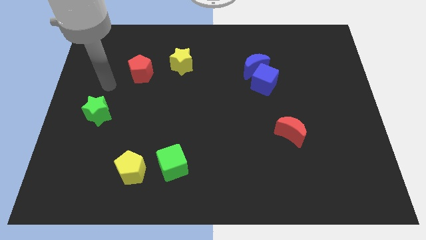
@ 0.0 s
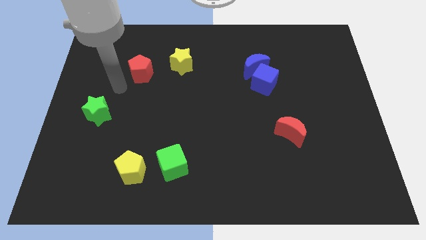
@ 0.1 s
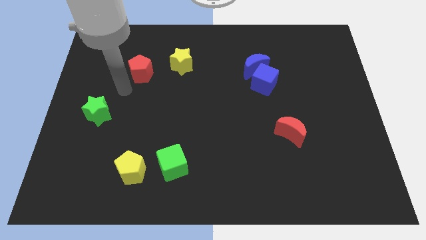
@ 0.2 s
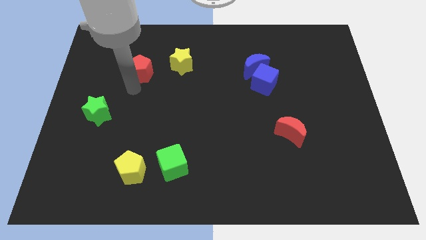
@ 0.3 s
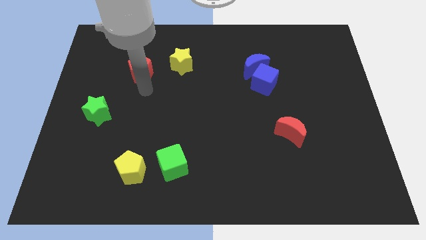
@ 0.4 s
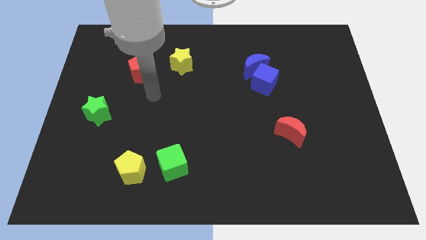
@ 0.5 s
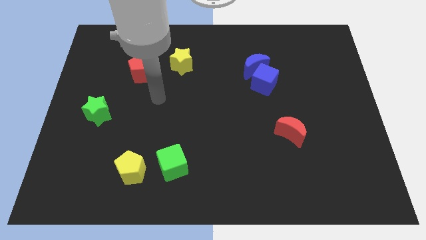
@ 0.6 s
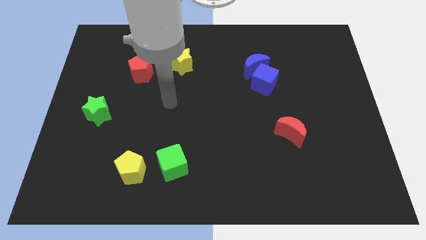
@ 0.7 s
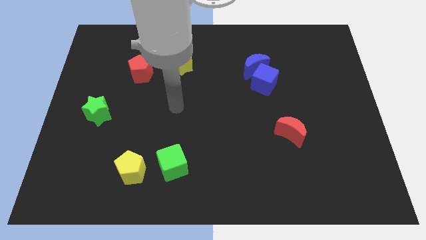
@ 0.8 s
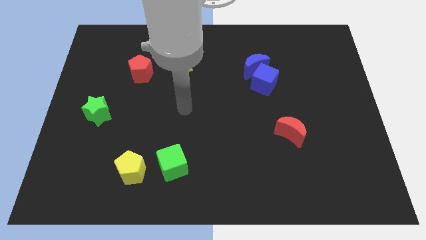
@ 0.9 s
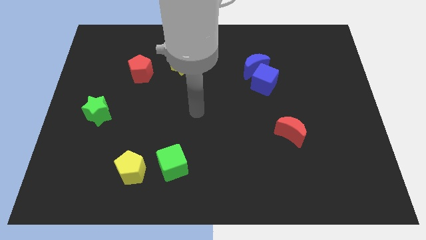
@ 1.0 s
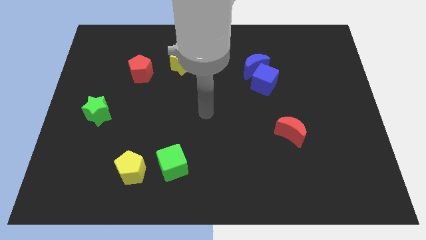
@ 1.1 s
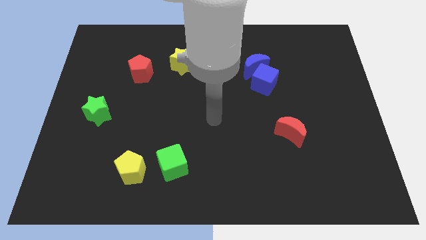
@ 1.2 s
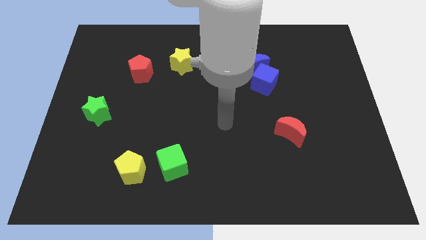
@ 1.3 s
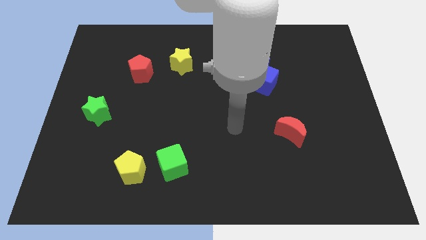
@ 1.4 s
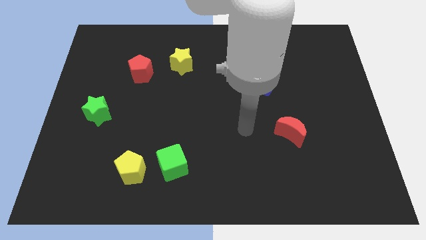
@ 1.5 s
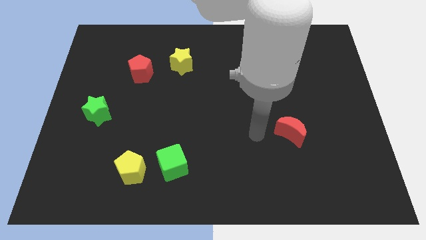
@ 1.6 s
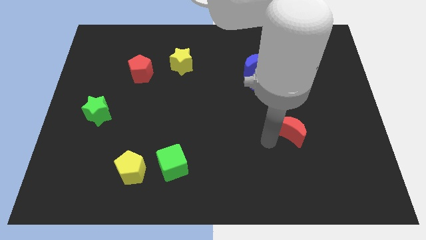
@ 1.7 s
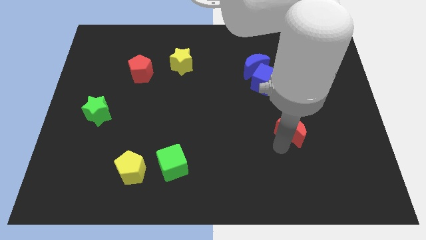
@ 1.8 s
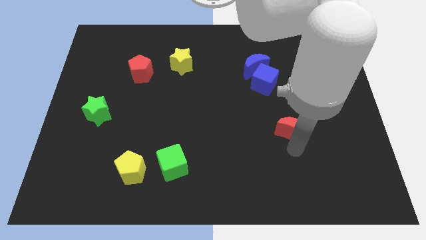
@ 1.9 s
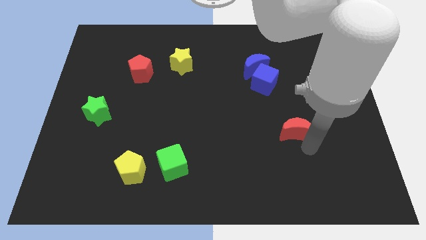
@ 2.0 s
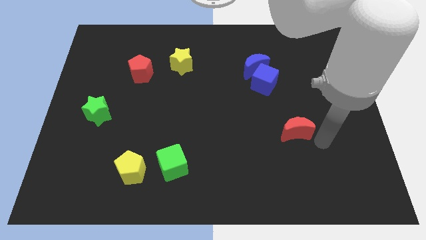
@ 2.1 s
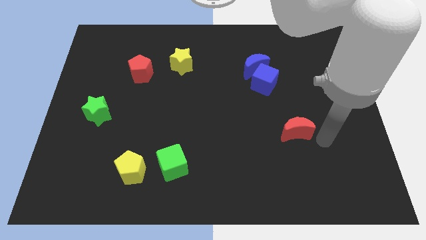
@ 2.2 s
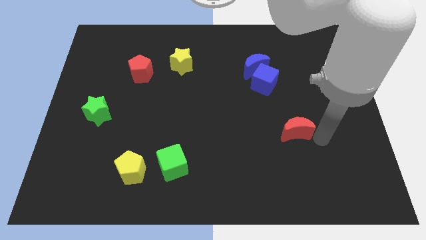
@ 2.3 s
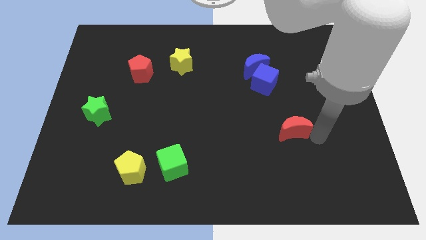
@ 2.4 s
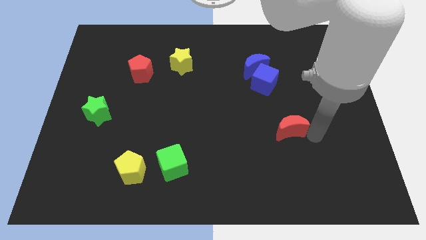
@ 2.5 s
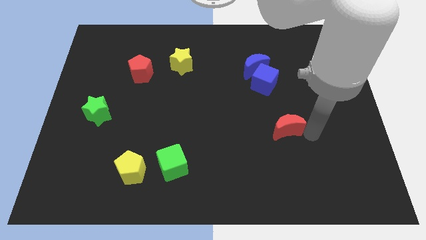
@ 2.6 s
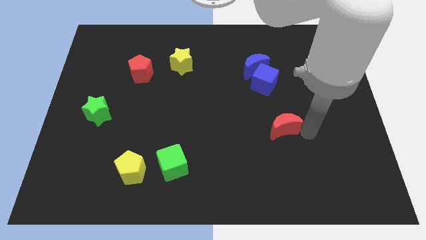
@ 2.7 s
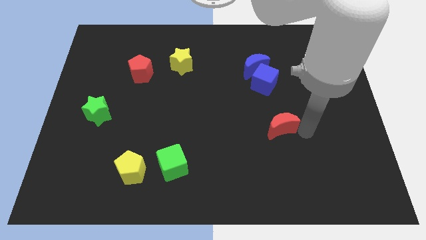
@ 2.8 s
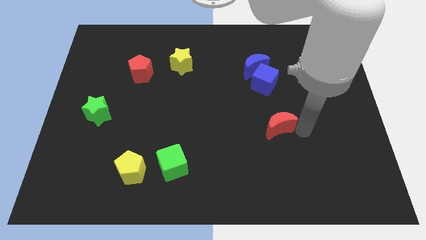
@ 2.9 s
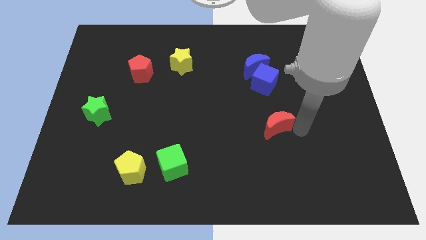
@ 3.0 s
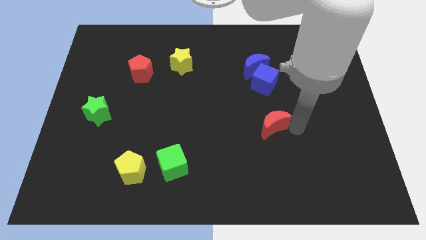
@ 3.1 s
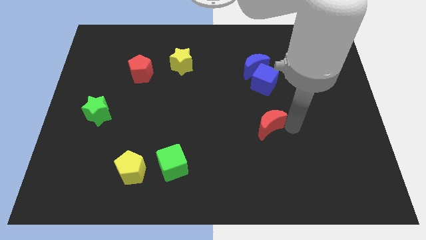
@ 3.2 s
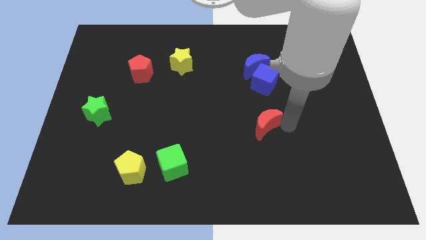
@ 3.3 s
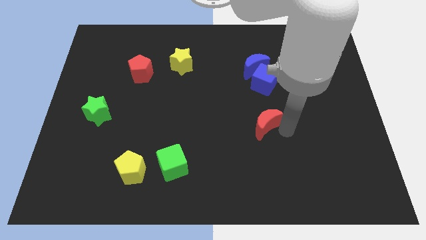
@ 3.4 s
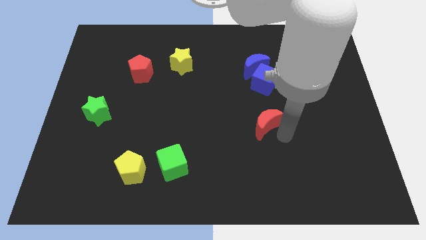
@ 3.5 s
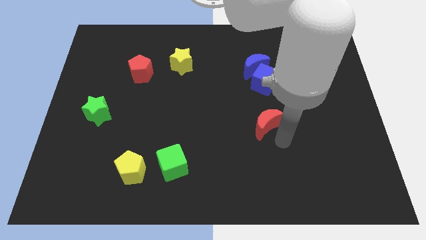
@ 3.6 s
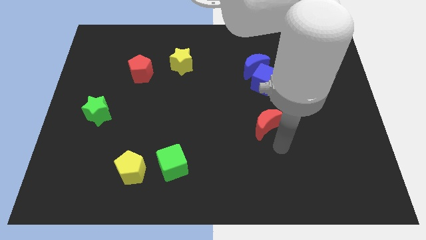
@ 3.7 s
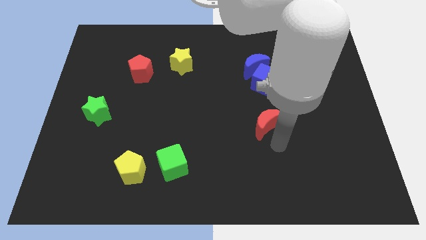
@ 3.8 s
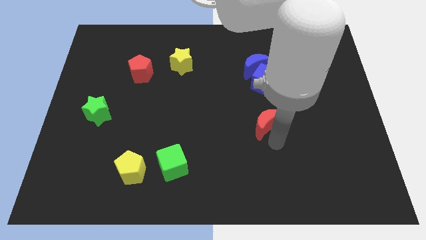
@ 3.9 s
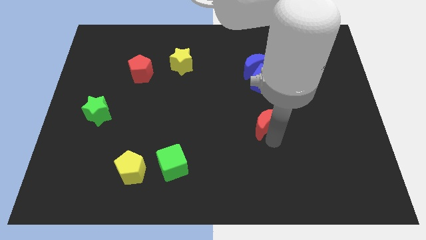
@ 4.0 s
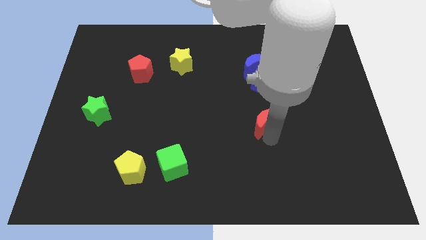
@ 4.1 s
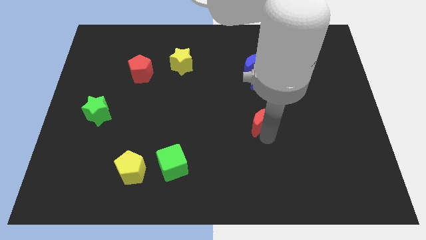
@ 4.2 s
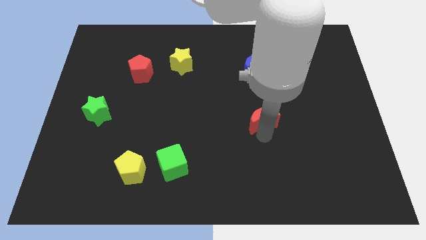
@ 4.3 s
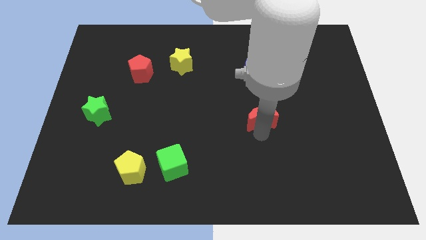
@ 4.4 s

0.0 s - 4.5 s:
move the red moon upwards and then to the left slightly

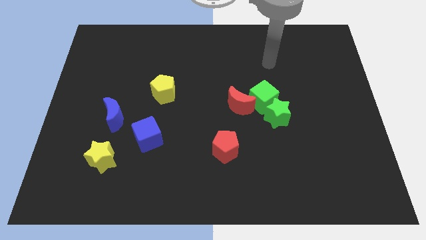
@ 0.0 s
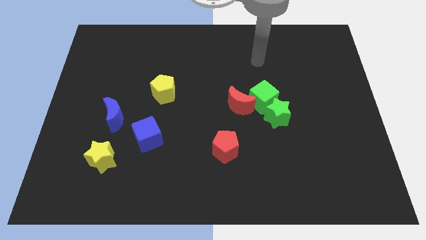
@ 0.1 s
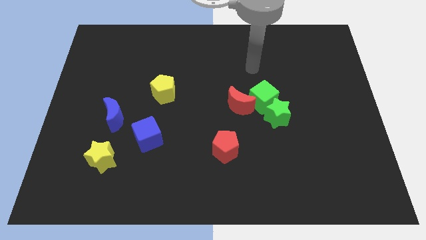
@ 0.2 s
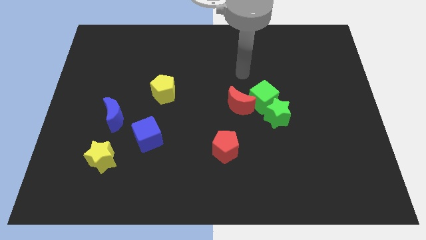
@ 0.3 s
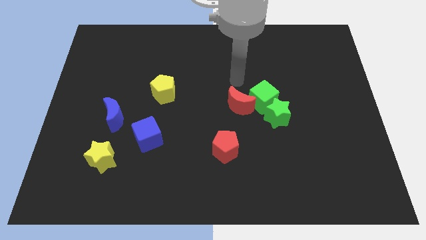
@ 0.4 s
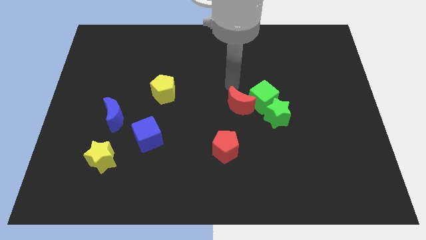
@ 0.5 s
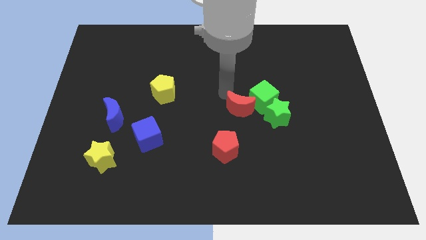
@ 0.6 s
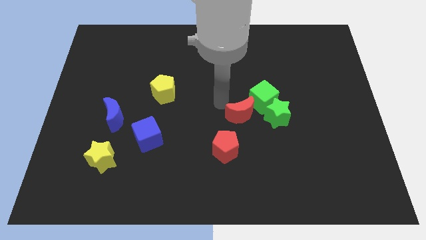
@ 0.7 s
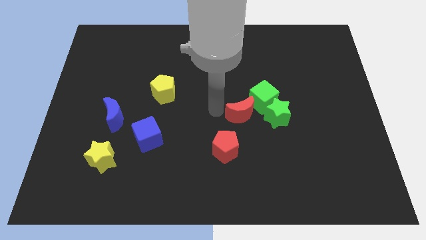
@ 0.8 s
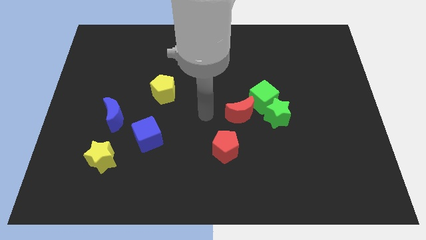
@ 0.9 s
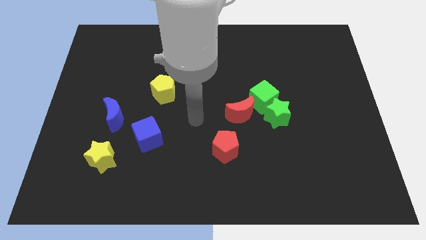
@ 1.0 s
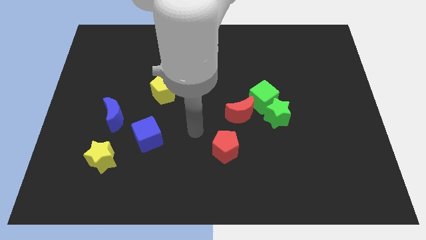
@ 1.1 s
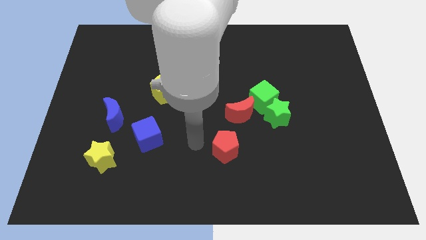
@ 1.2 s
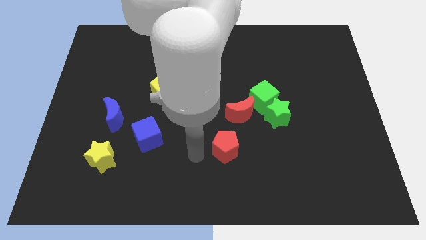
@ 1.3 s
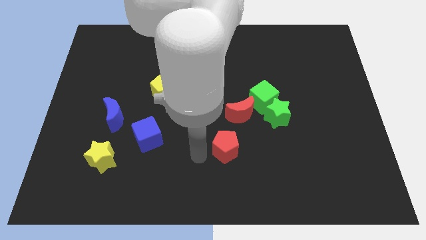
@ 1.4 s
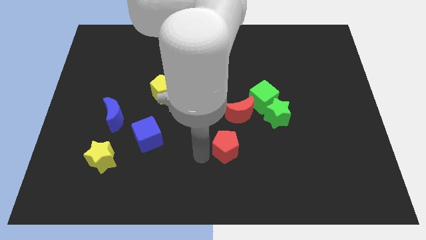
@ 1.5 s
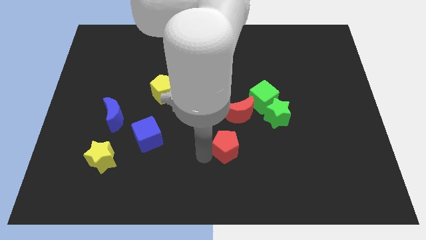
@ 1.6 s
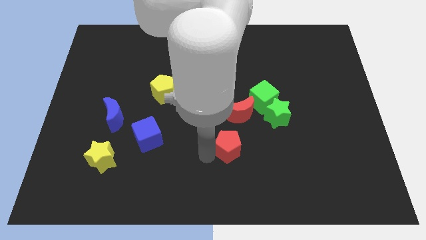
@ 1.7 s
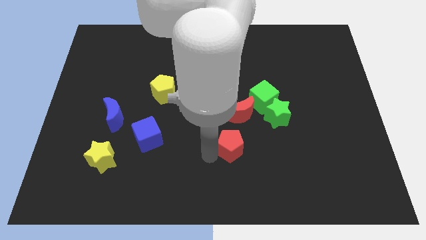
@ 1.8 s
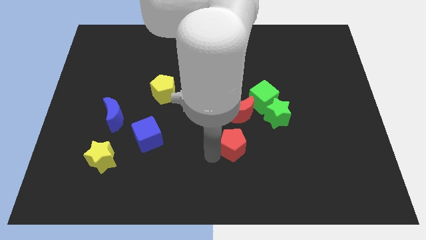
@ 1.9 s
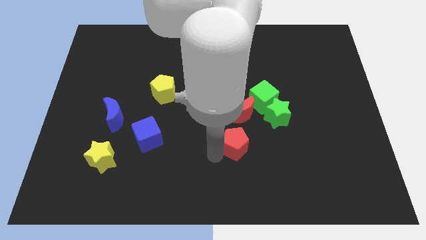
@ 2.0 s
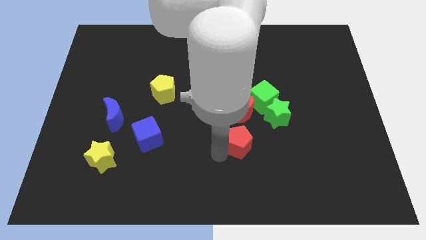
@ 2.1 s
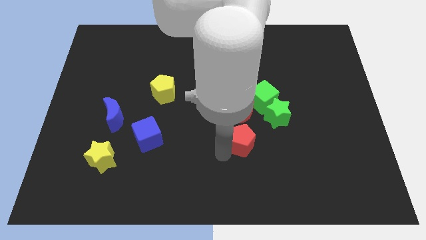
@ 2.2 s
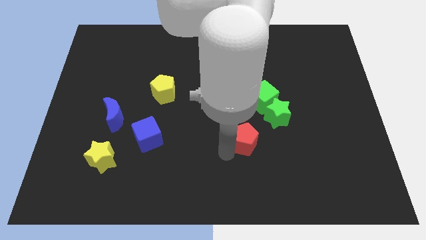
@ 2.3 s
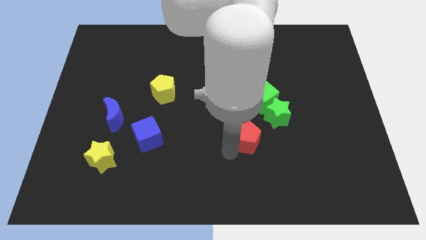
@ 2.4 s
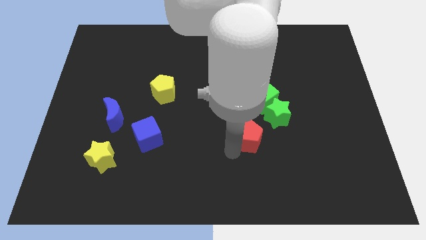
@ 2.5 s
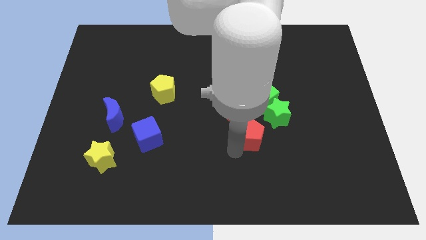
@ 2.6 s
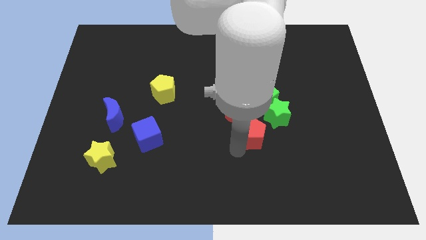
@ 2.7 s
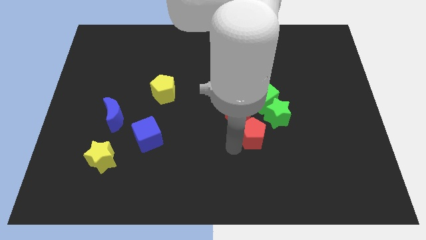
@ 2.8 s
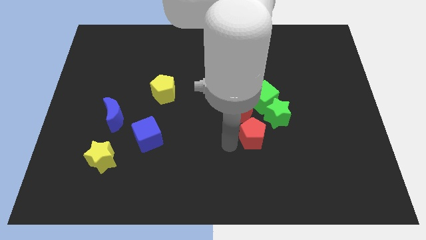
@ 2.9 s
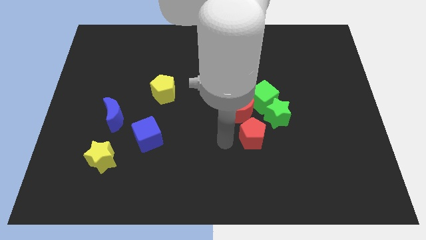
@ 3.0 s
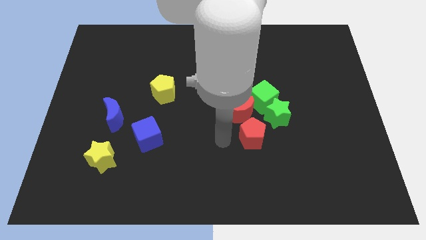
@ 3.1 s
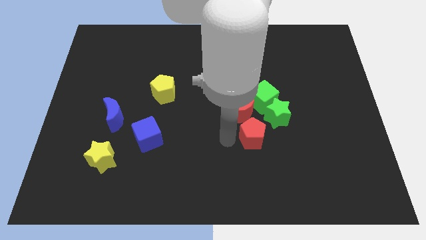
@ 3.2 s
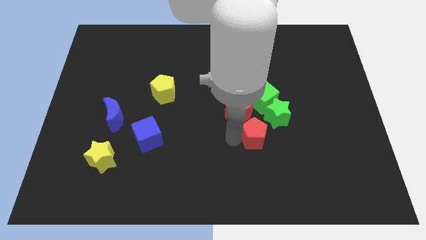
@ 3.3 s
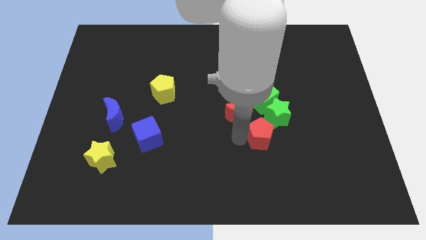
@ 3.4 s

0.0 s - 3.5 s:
slide the red pentagon slightly upwards and then to the right
